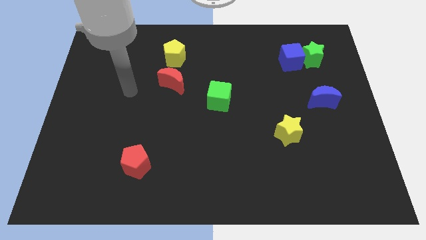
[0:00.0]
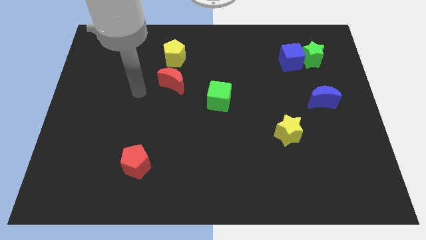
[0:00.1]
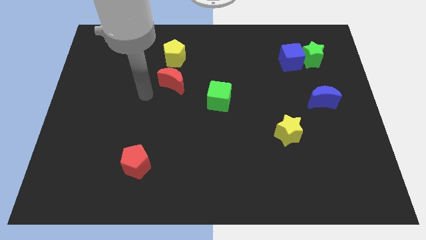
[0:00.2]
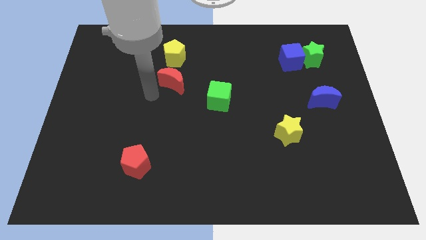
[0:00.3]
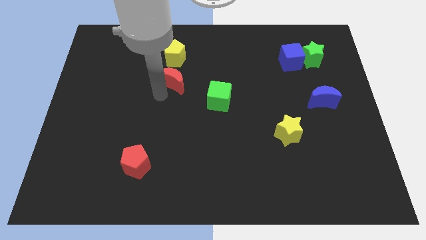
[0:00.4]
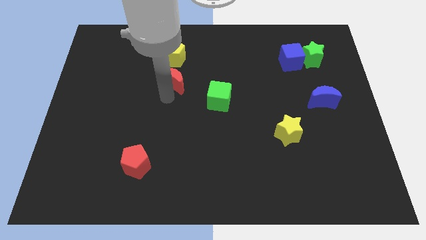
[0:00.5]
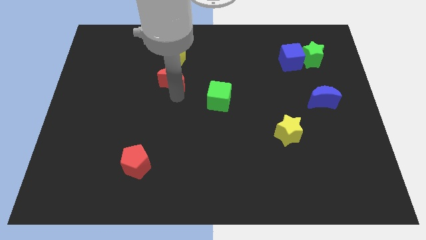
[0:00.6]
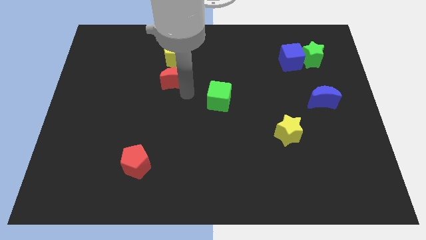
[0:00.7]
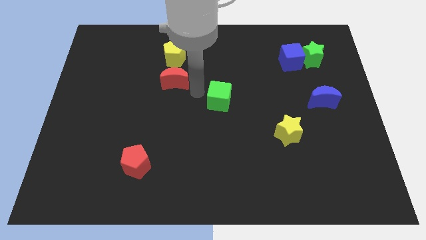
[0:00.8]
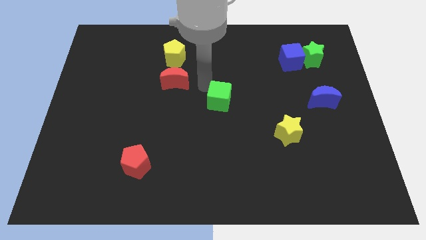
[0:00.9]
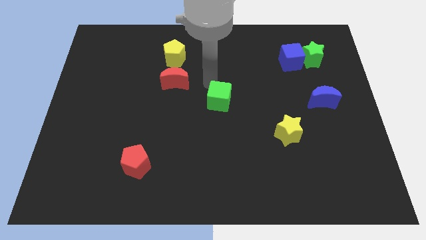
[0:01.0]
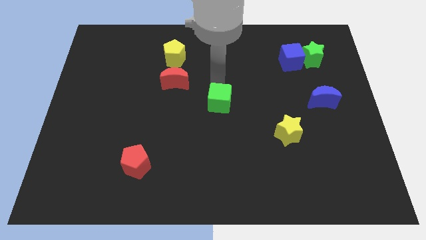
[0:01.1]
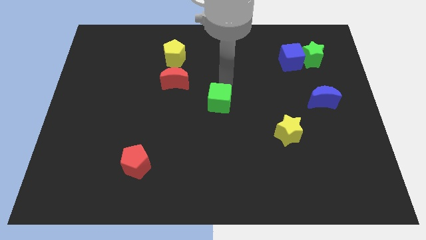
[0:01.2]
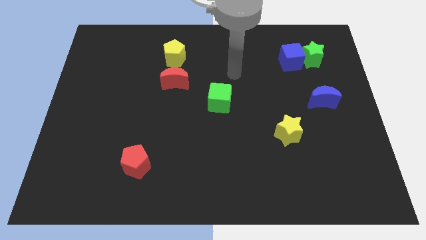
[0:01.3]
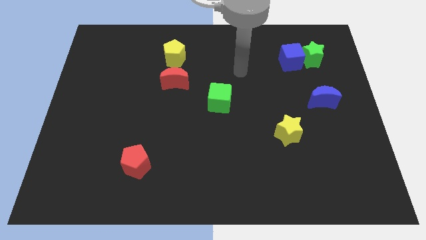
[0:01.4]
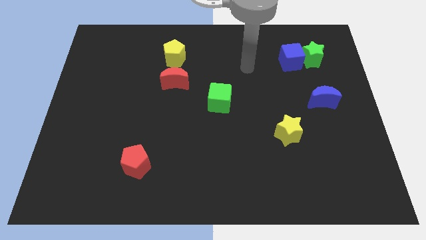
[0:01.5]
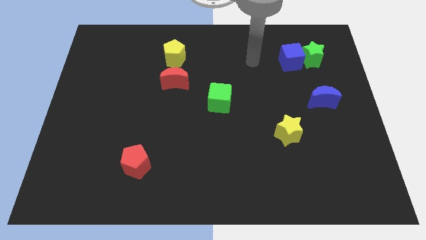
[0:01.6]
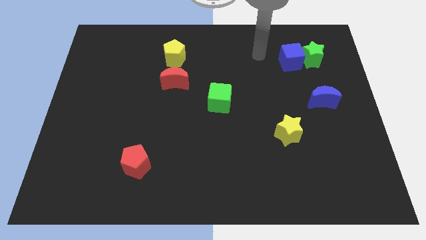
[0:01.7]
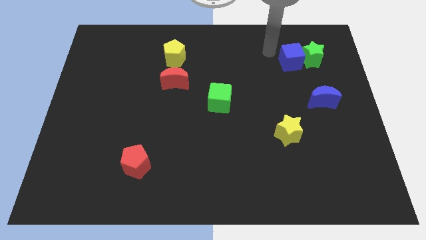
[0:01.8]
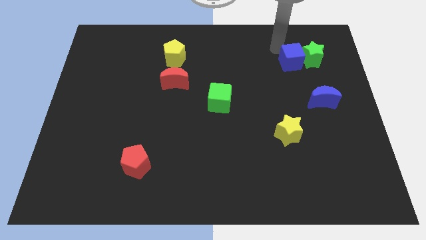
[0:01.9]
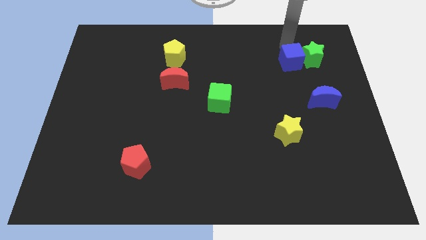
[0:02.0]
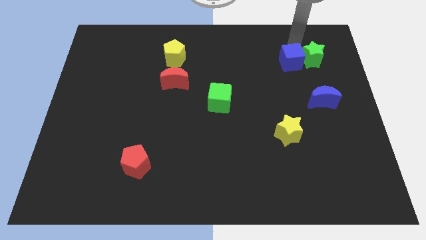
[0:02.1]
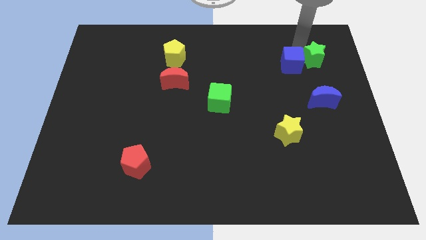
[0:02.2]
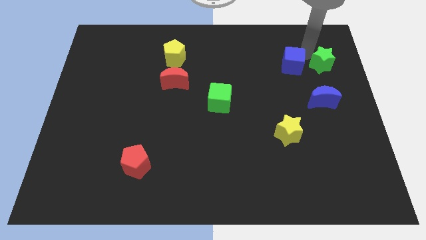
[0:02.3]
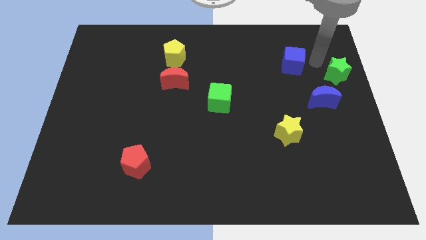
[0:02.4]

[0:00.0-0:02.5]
pull the blue cube apart from the green star

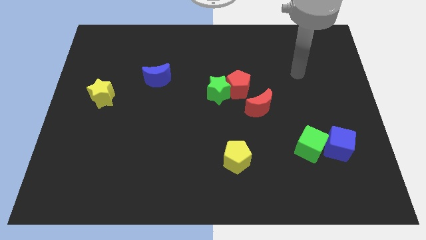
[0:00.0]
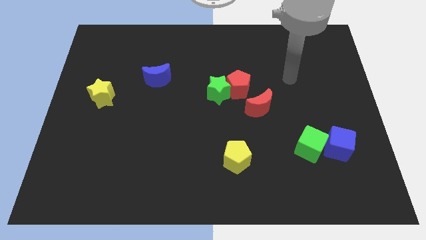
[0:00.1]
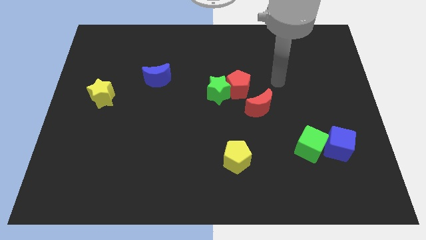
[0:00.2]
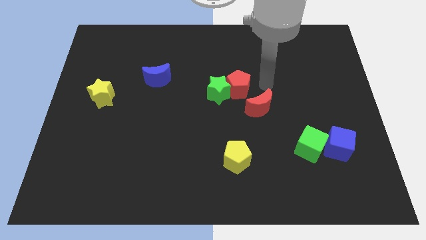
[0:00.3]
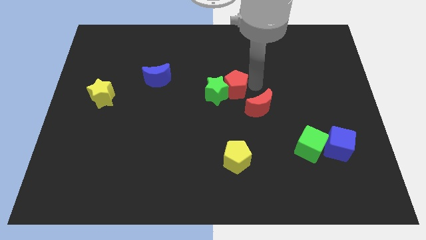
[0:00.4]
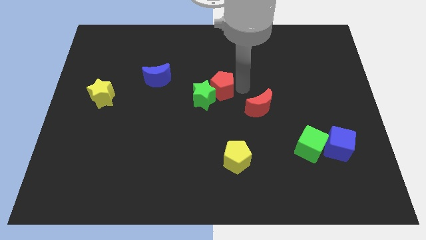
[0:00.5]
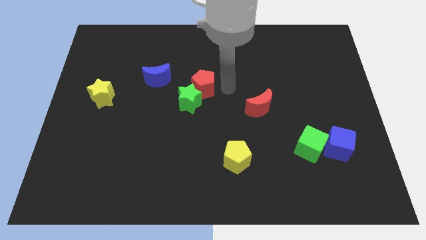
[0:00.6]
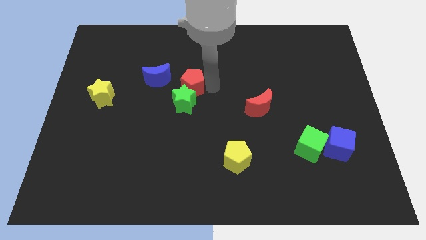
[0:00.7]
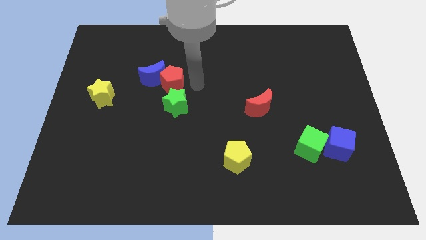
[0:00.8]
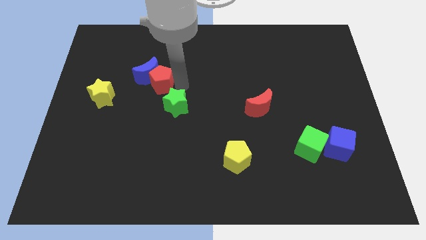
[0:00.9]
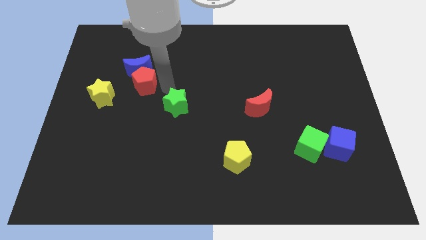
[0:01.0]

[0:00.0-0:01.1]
move the green star away from the red pentagon

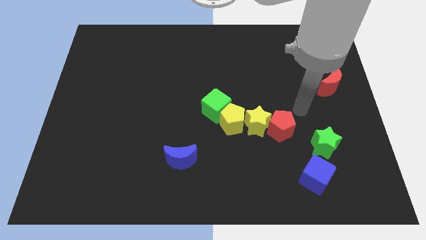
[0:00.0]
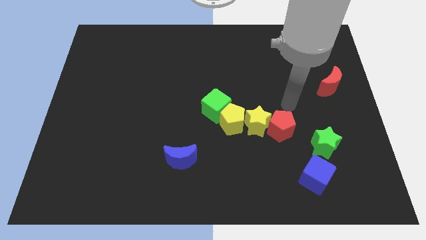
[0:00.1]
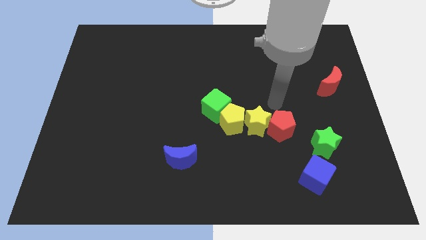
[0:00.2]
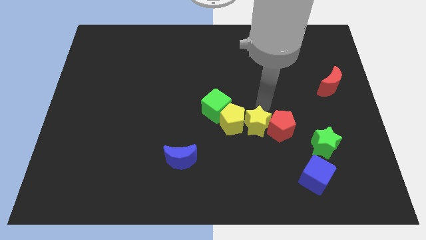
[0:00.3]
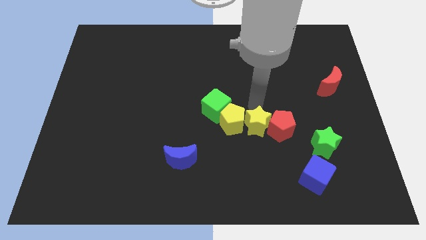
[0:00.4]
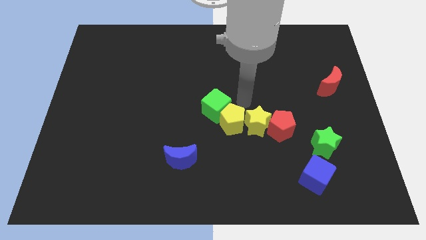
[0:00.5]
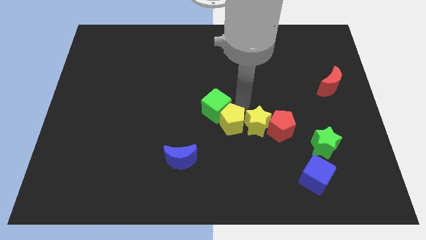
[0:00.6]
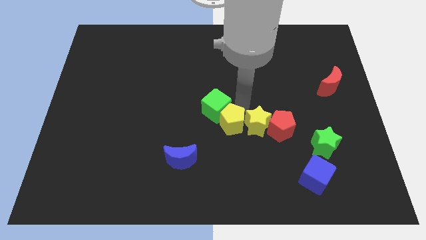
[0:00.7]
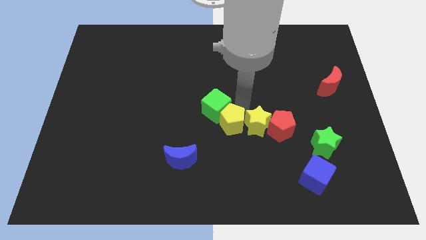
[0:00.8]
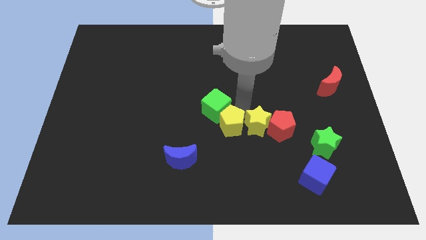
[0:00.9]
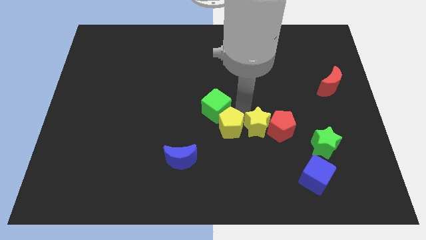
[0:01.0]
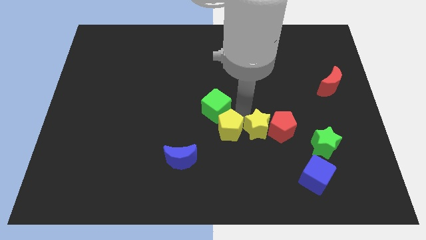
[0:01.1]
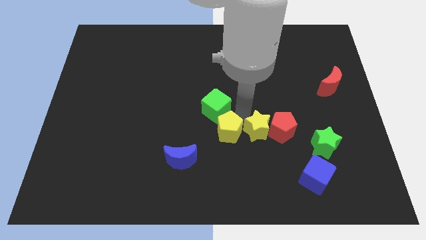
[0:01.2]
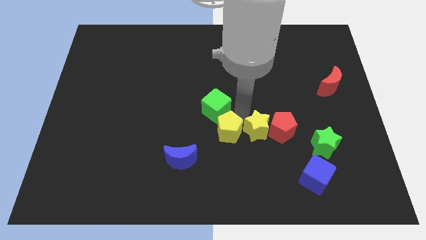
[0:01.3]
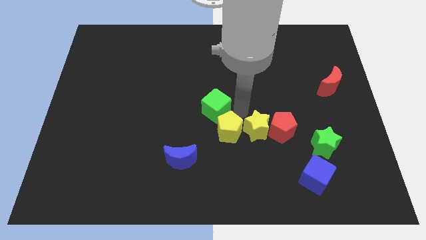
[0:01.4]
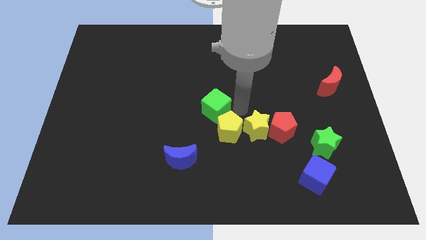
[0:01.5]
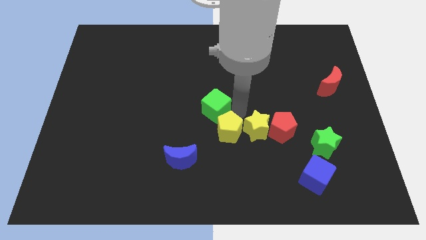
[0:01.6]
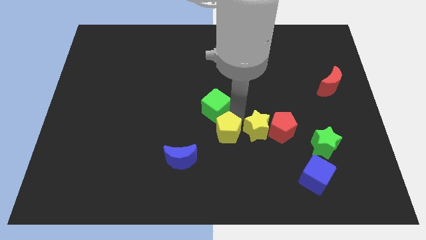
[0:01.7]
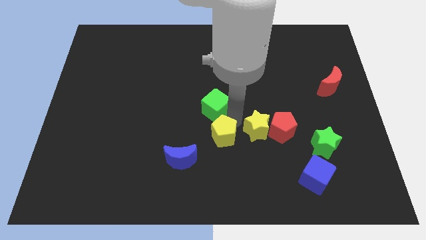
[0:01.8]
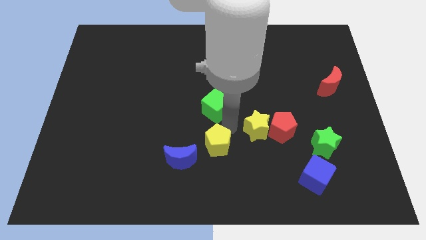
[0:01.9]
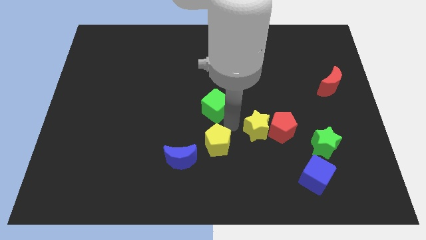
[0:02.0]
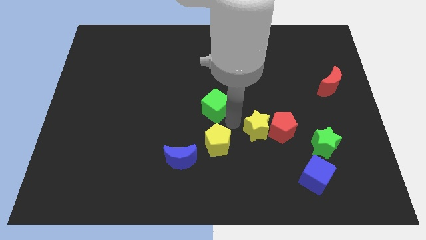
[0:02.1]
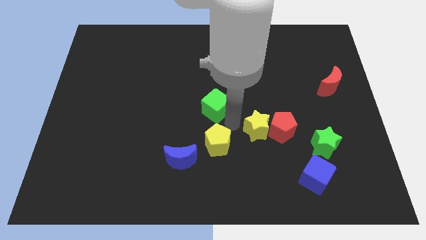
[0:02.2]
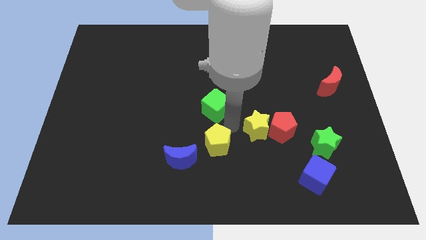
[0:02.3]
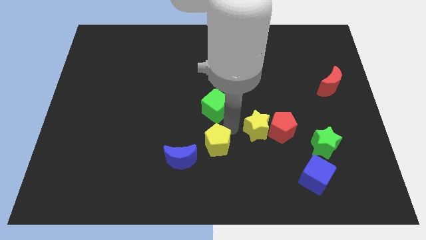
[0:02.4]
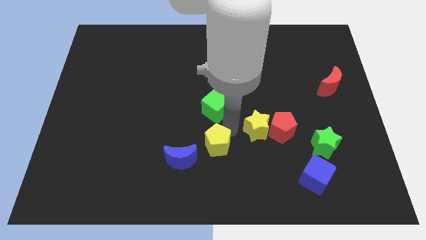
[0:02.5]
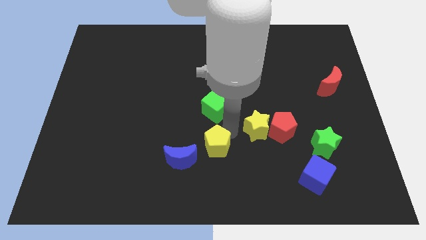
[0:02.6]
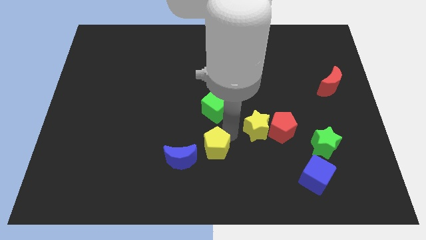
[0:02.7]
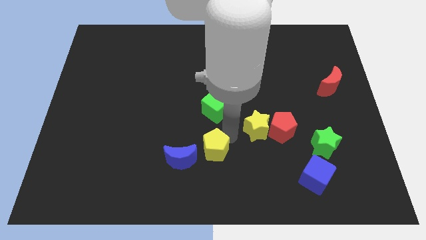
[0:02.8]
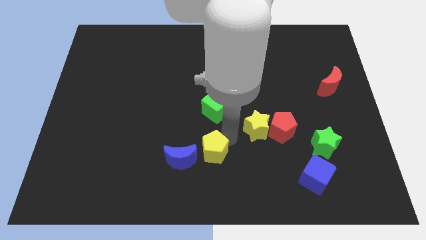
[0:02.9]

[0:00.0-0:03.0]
move the yellow pentagon away from the yellow star and green cube

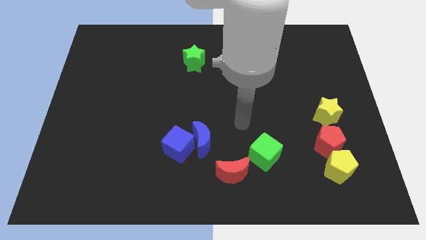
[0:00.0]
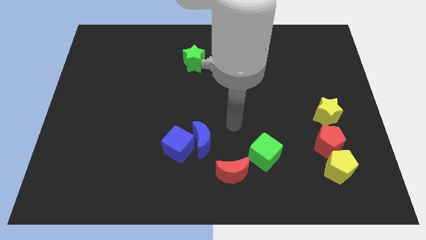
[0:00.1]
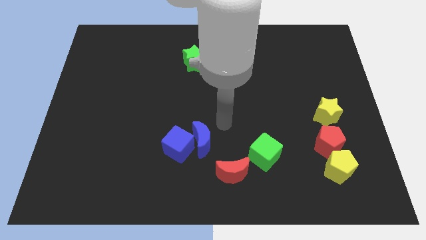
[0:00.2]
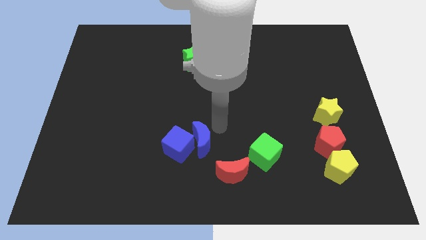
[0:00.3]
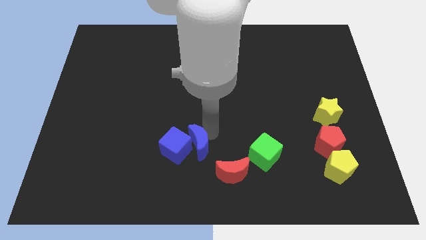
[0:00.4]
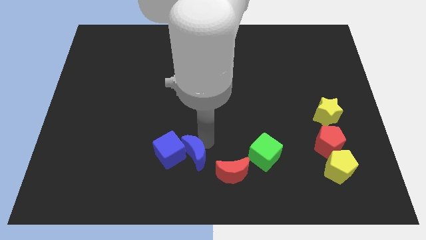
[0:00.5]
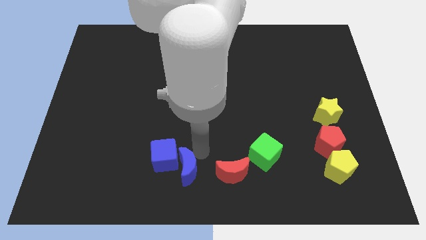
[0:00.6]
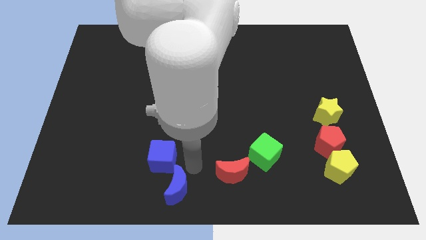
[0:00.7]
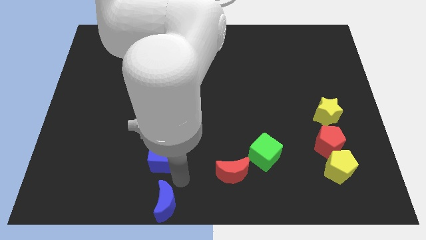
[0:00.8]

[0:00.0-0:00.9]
pull the blue cube apart from the blue moon

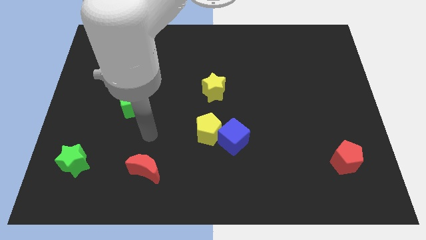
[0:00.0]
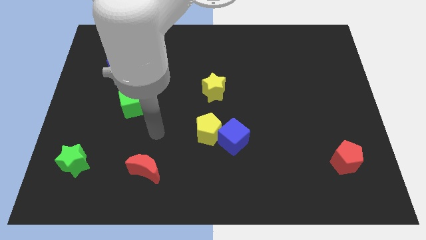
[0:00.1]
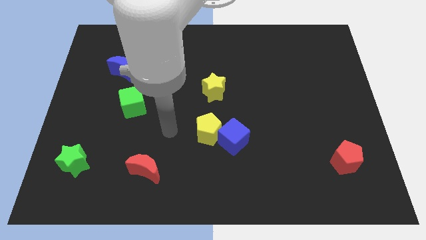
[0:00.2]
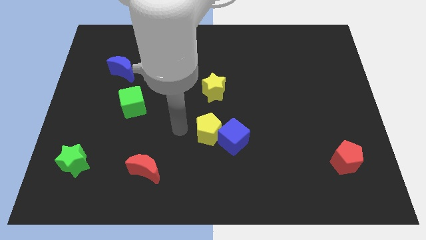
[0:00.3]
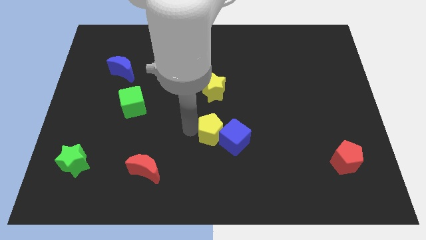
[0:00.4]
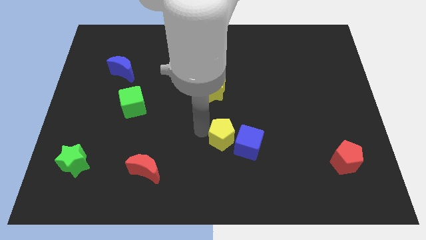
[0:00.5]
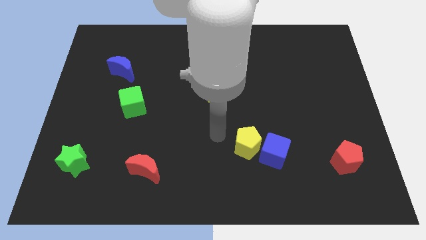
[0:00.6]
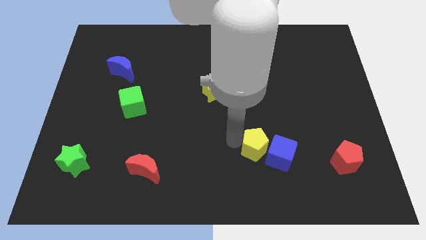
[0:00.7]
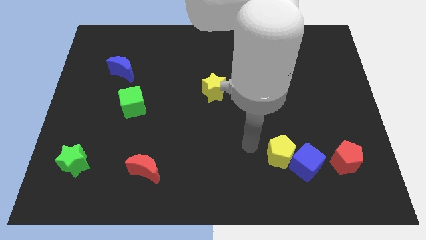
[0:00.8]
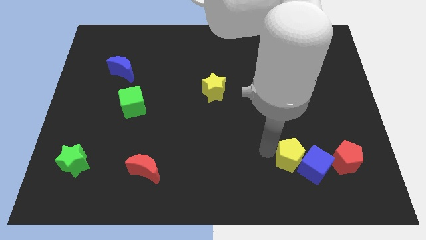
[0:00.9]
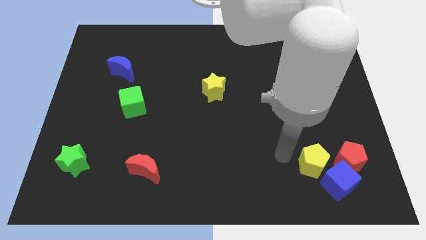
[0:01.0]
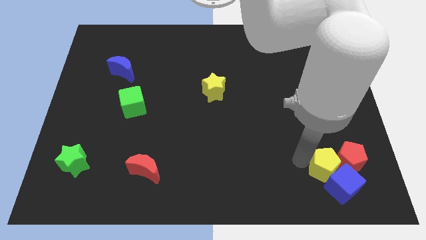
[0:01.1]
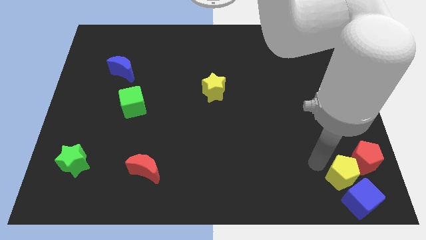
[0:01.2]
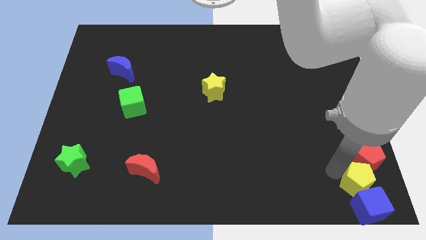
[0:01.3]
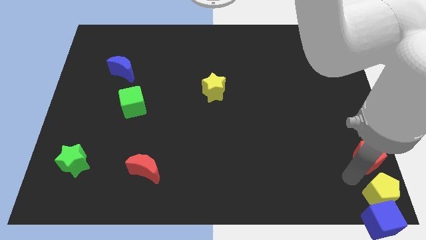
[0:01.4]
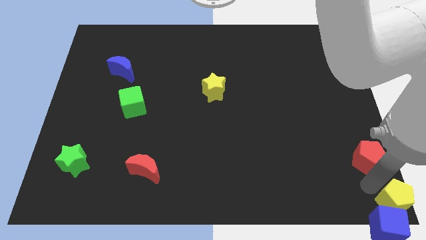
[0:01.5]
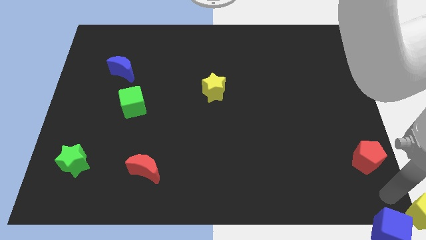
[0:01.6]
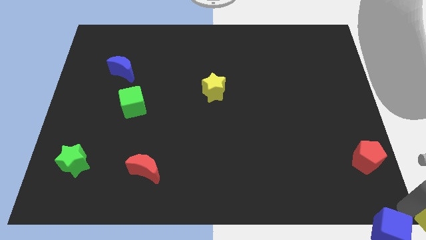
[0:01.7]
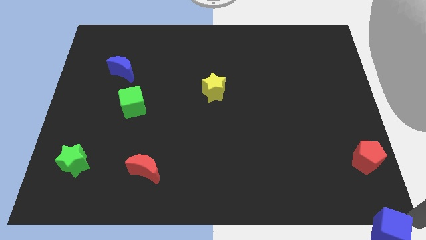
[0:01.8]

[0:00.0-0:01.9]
pull the blue cube apart from the yellow pentagon

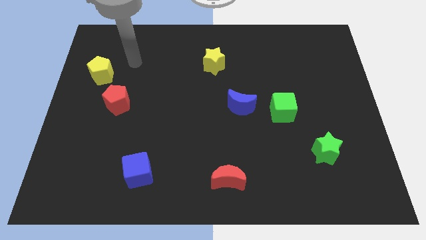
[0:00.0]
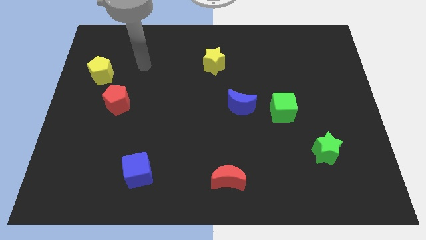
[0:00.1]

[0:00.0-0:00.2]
move the blue moon away from the green cube
